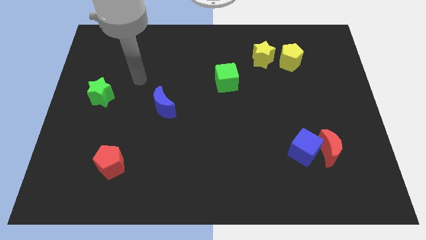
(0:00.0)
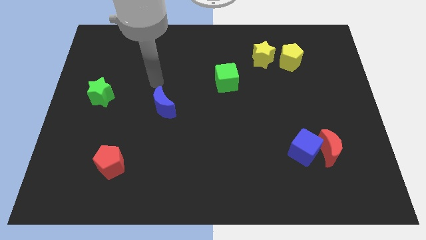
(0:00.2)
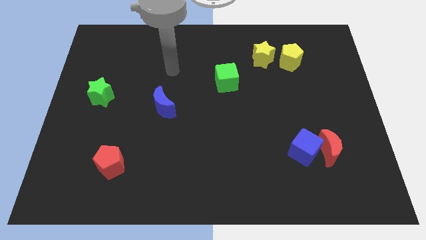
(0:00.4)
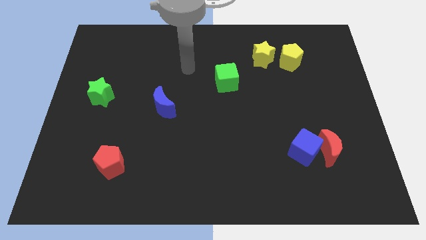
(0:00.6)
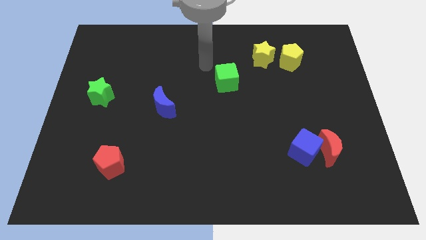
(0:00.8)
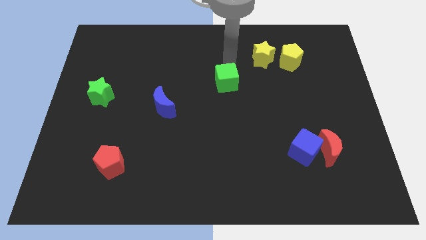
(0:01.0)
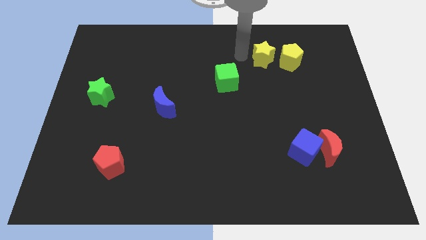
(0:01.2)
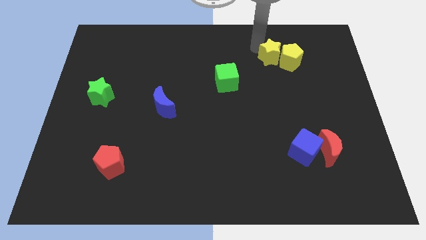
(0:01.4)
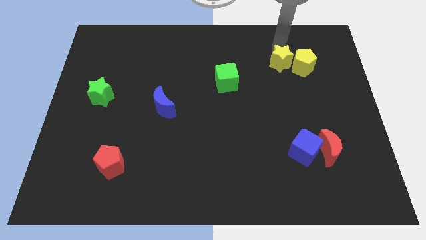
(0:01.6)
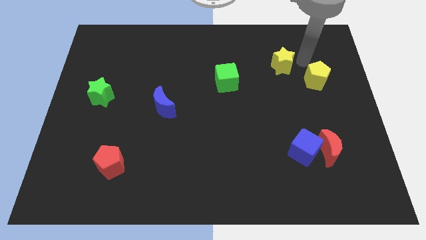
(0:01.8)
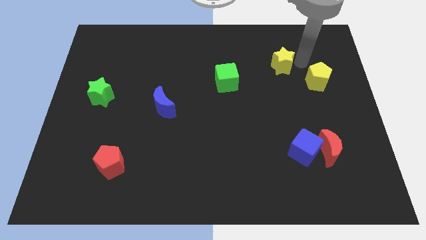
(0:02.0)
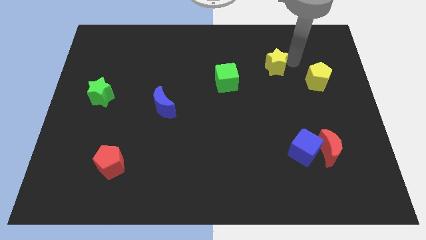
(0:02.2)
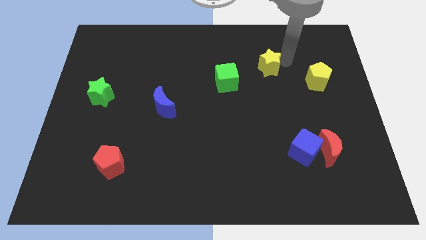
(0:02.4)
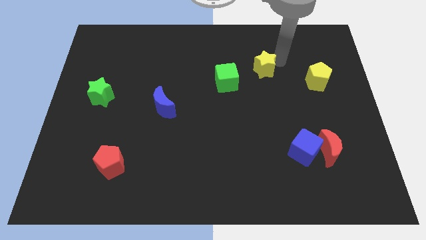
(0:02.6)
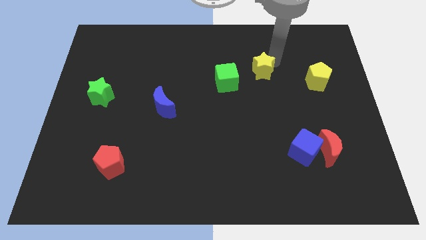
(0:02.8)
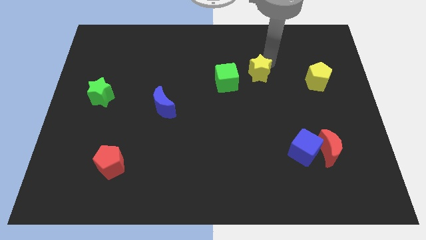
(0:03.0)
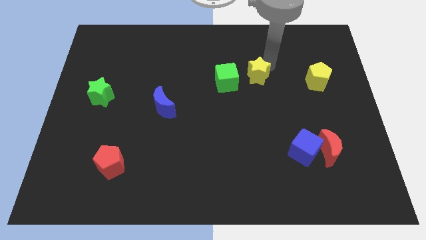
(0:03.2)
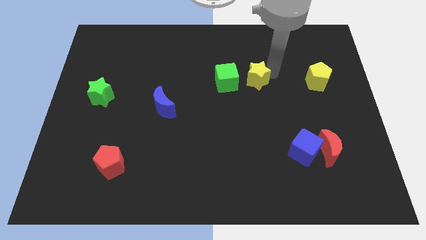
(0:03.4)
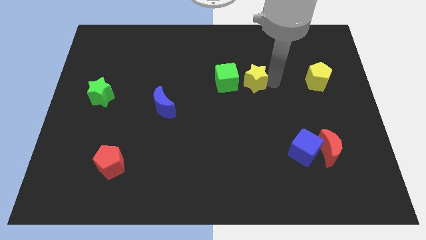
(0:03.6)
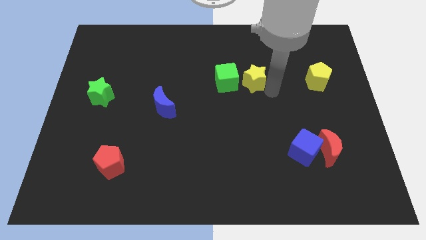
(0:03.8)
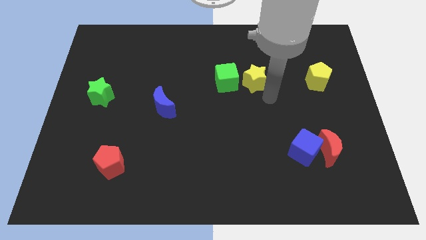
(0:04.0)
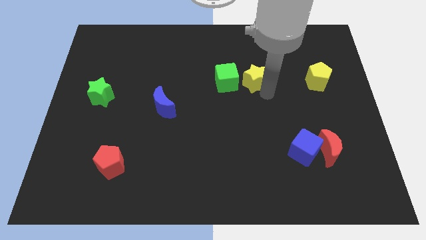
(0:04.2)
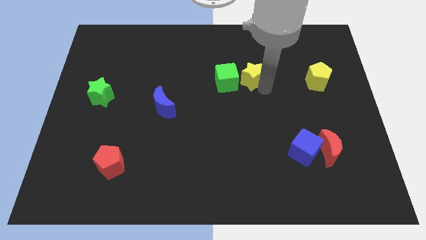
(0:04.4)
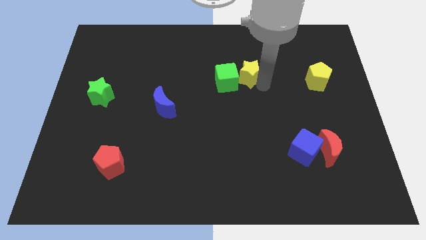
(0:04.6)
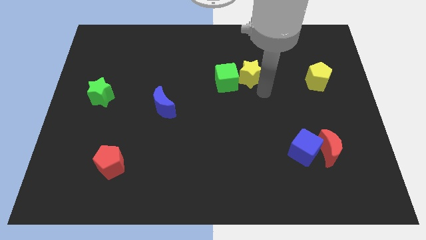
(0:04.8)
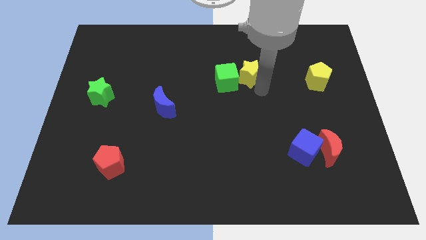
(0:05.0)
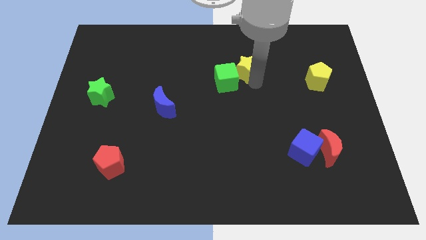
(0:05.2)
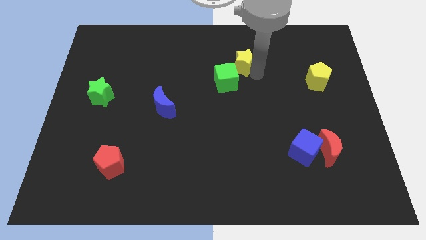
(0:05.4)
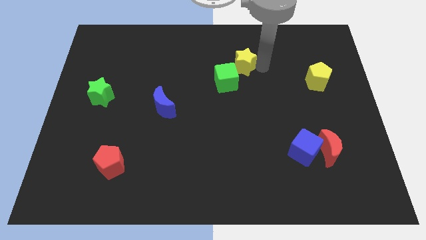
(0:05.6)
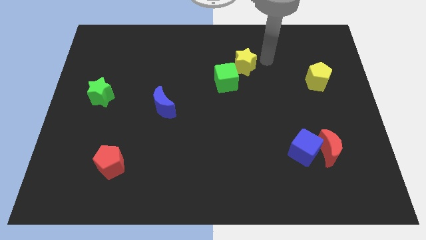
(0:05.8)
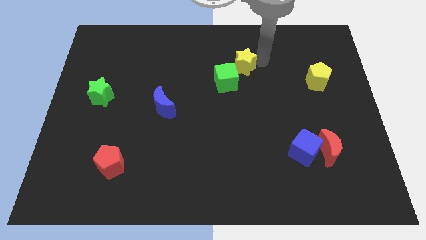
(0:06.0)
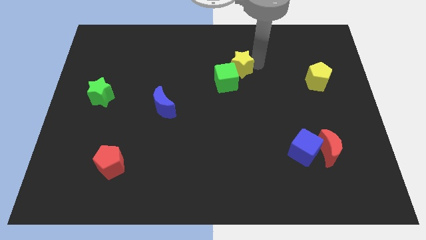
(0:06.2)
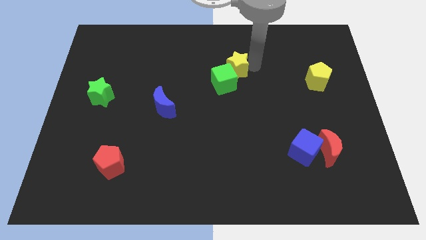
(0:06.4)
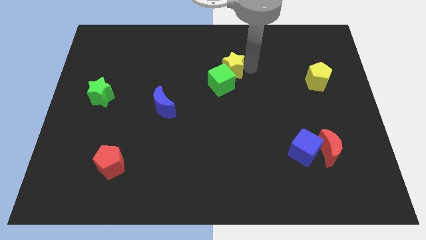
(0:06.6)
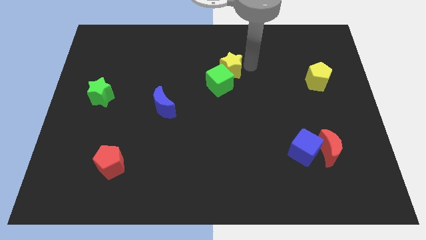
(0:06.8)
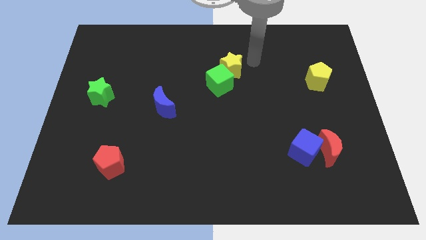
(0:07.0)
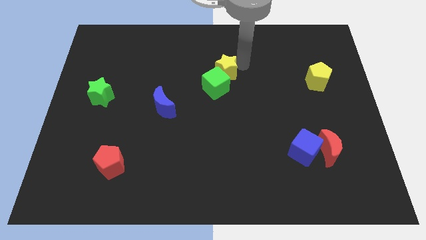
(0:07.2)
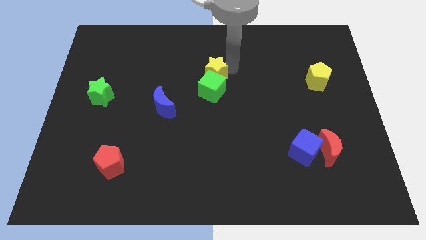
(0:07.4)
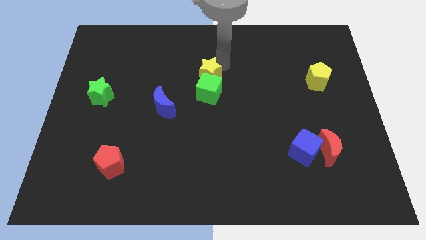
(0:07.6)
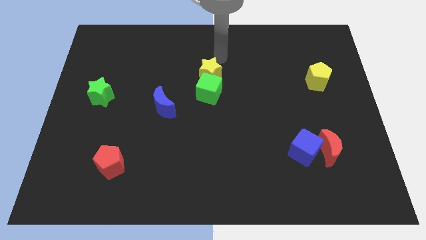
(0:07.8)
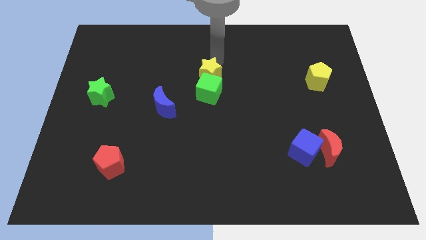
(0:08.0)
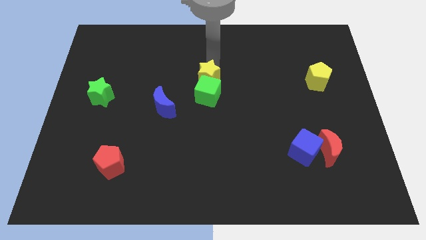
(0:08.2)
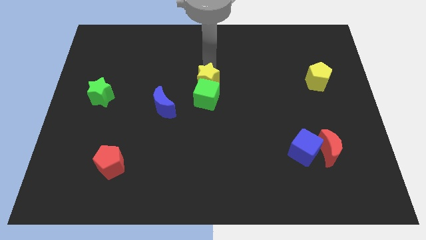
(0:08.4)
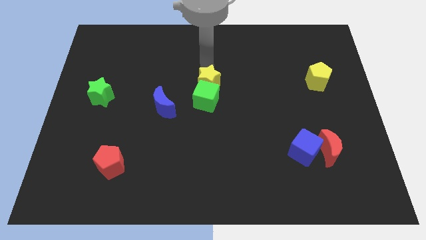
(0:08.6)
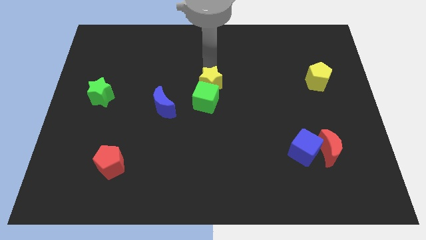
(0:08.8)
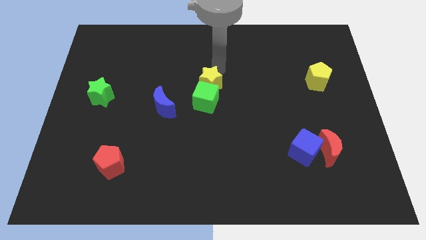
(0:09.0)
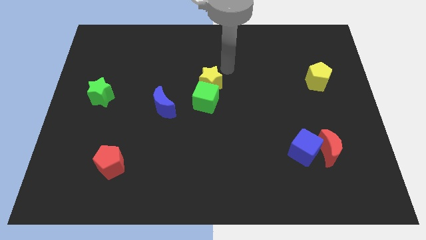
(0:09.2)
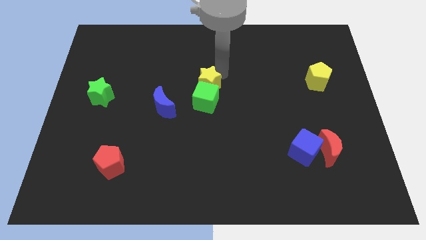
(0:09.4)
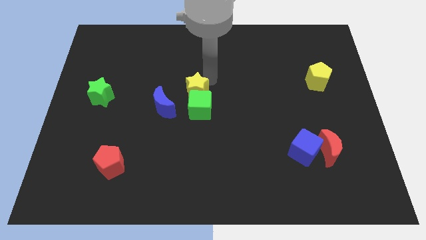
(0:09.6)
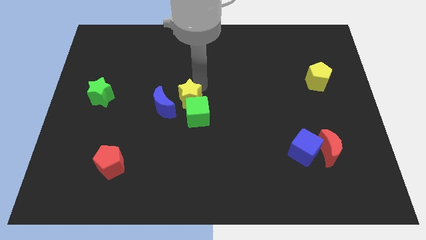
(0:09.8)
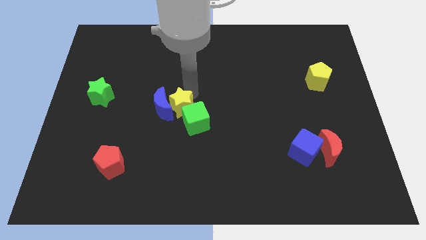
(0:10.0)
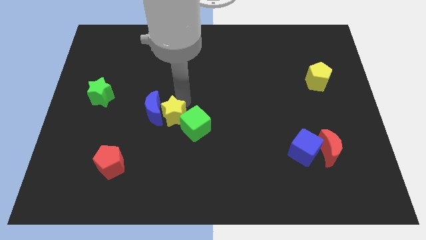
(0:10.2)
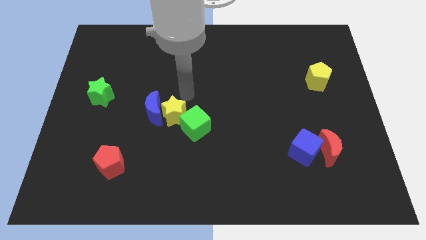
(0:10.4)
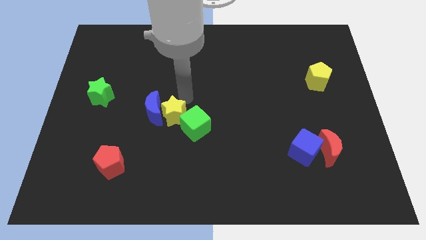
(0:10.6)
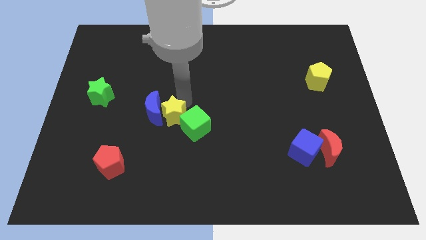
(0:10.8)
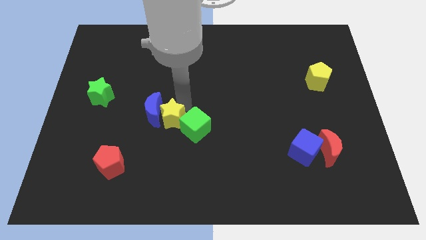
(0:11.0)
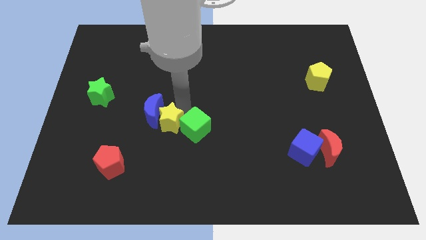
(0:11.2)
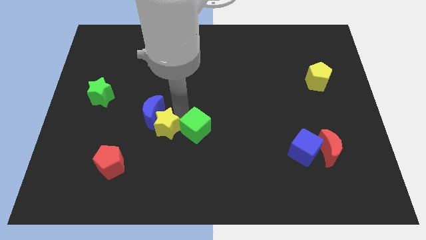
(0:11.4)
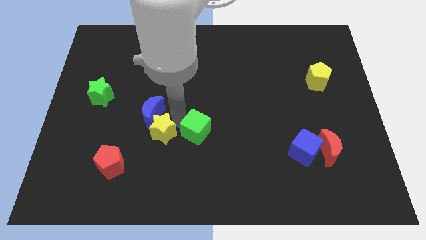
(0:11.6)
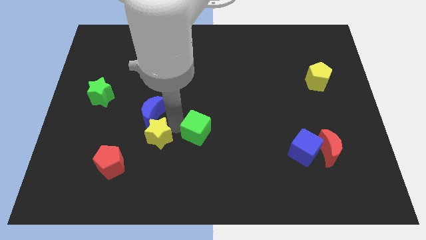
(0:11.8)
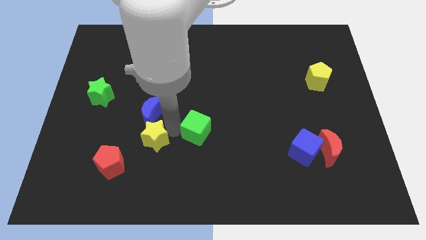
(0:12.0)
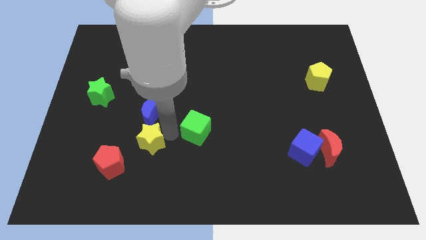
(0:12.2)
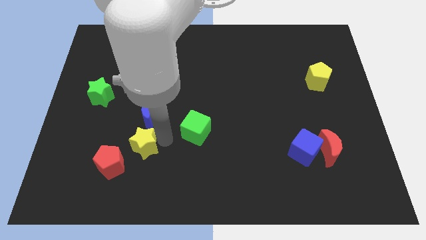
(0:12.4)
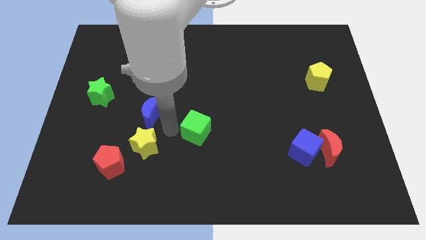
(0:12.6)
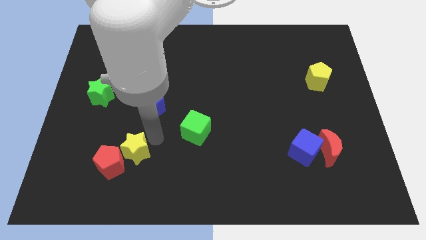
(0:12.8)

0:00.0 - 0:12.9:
move the yellow star next to the red pentagon
